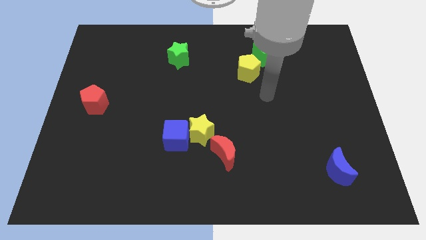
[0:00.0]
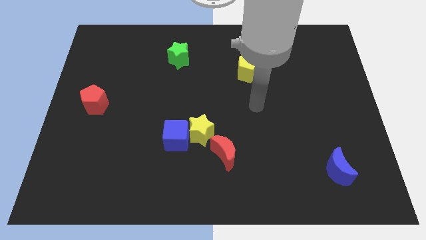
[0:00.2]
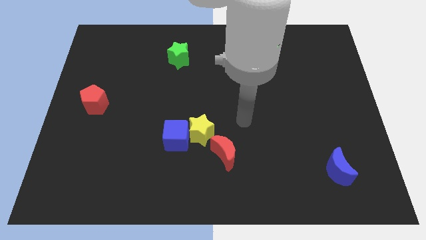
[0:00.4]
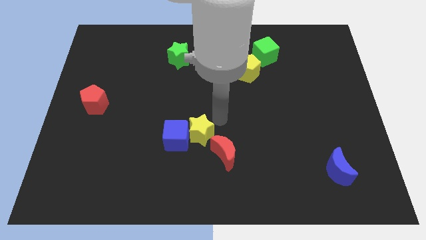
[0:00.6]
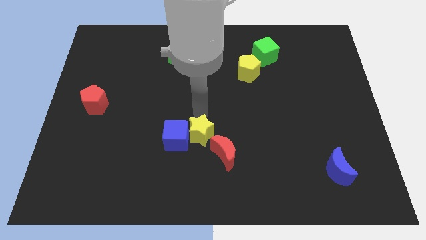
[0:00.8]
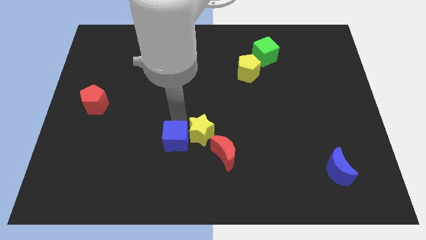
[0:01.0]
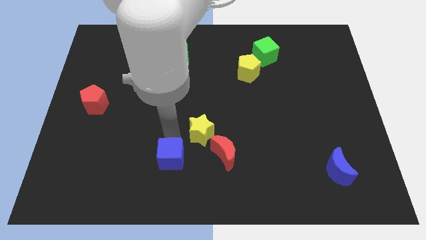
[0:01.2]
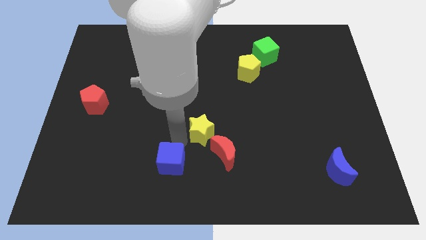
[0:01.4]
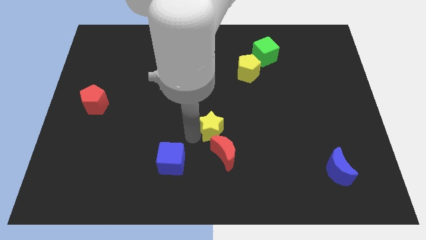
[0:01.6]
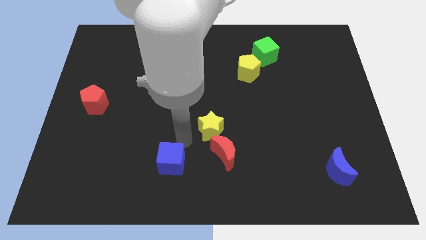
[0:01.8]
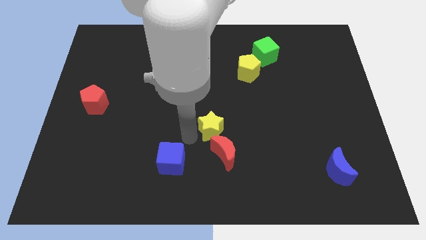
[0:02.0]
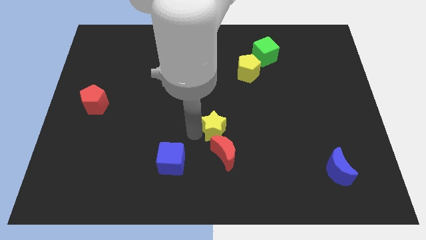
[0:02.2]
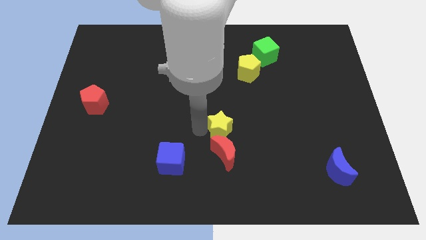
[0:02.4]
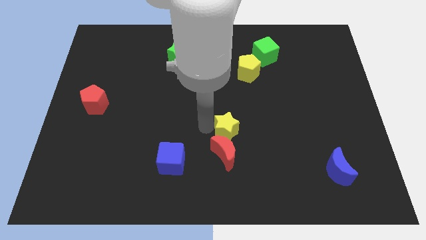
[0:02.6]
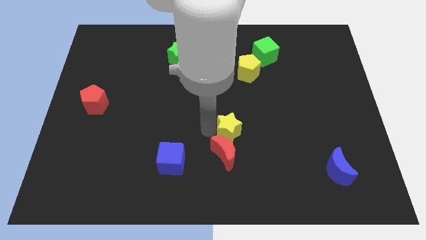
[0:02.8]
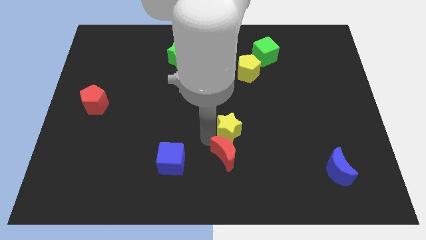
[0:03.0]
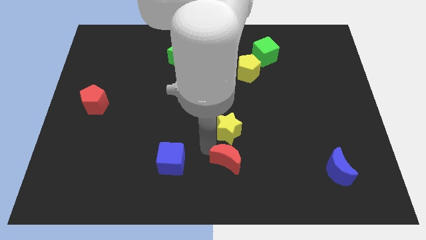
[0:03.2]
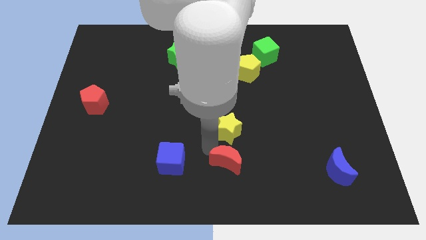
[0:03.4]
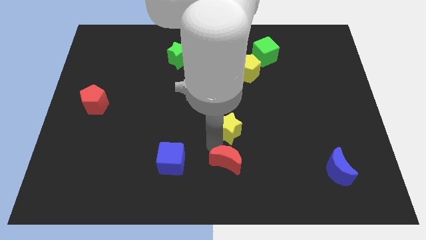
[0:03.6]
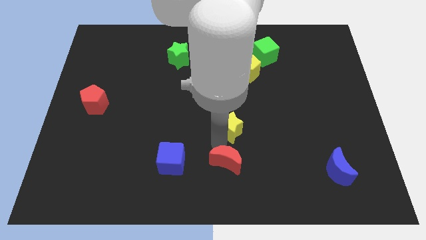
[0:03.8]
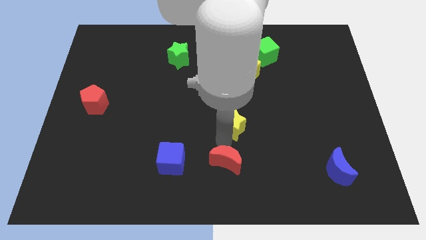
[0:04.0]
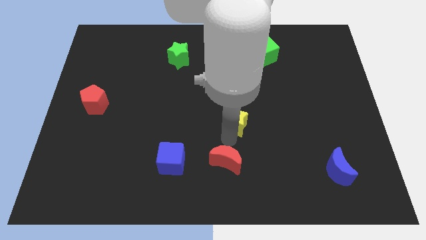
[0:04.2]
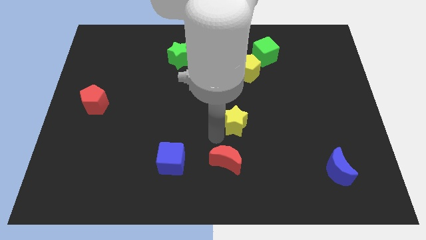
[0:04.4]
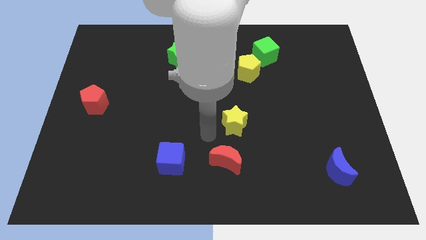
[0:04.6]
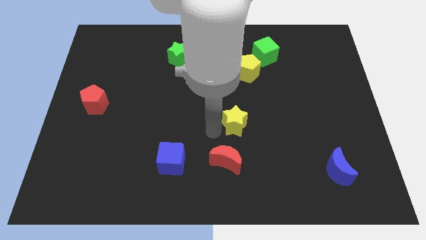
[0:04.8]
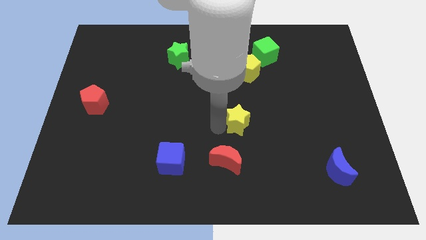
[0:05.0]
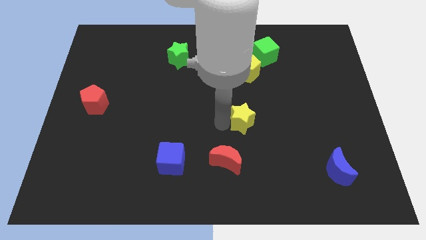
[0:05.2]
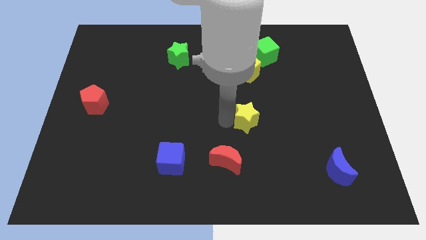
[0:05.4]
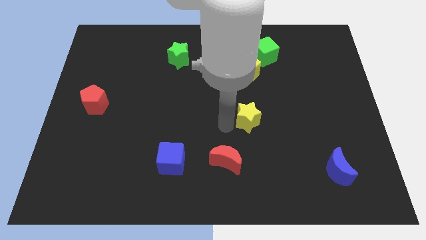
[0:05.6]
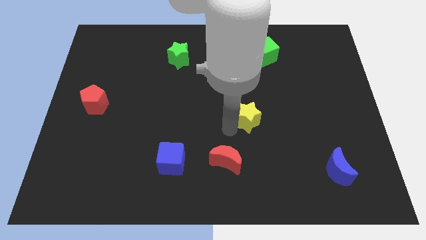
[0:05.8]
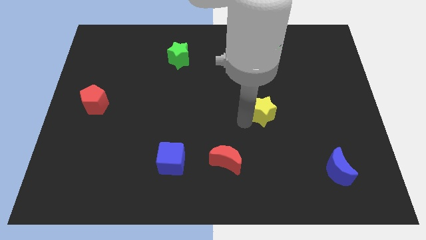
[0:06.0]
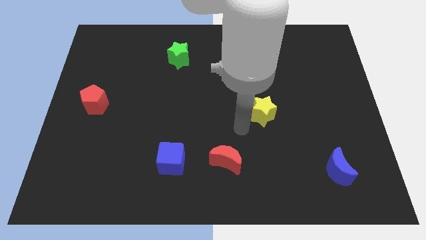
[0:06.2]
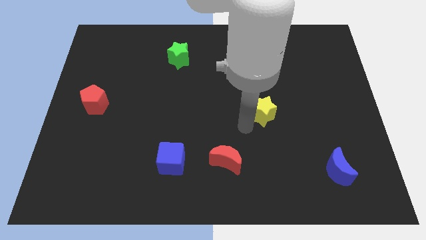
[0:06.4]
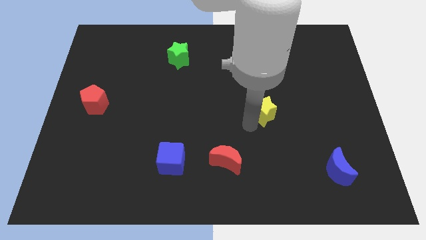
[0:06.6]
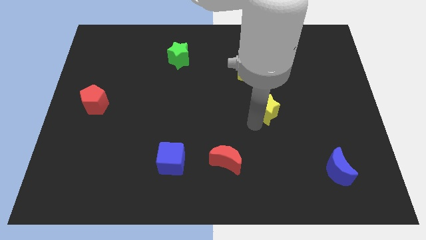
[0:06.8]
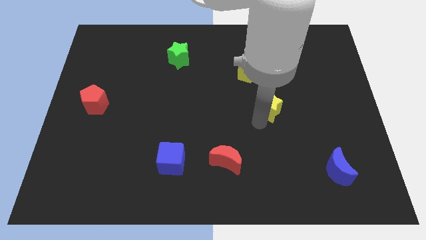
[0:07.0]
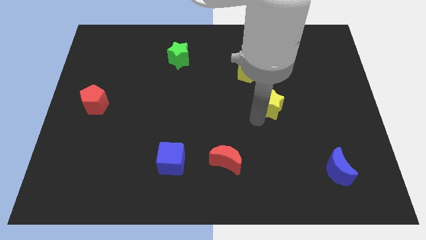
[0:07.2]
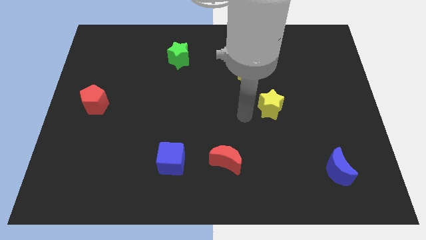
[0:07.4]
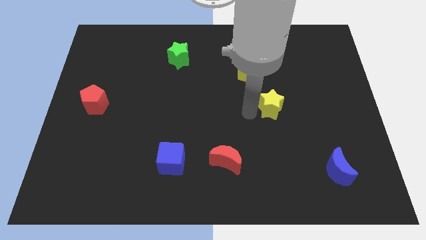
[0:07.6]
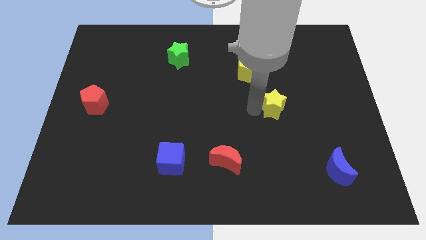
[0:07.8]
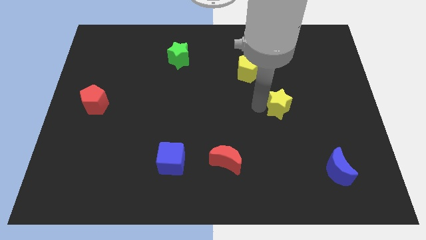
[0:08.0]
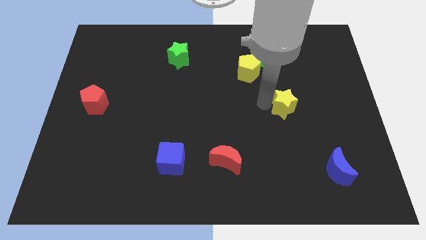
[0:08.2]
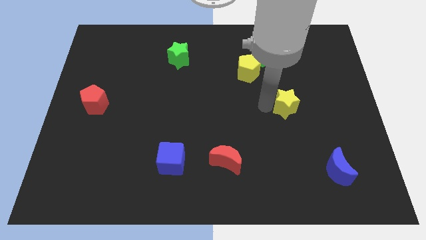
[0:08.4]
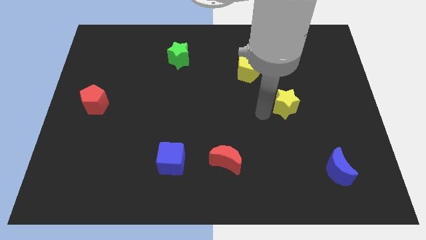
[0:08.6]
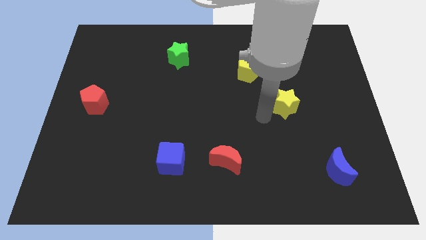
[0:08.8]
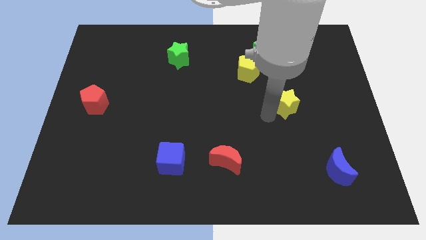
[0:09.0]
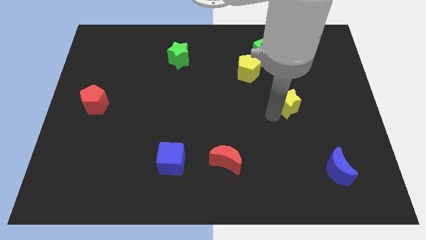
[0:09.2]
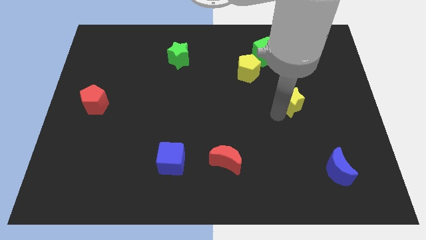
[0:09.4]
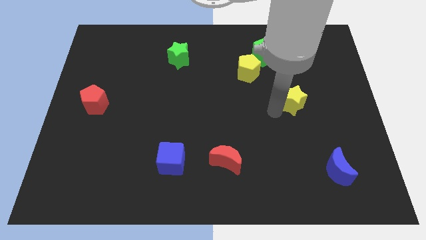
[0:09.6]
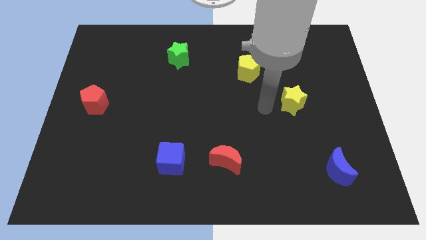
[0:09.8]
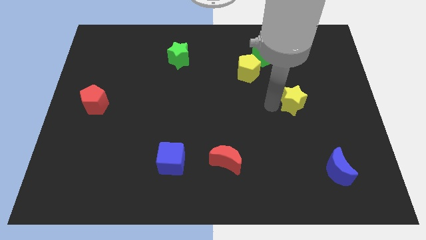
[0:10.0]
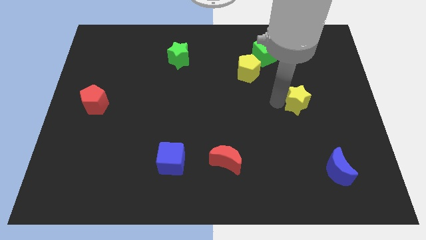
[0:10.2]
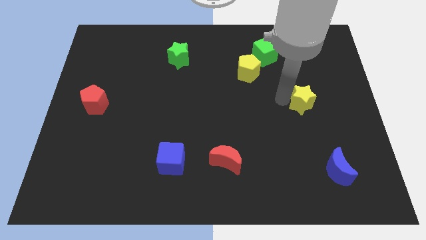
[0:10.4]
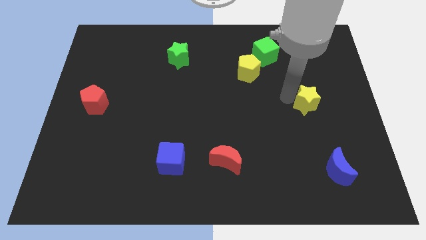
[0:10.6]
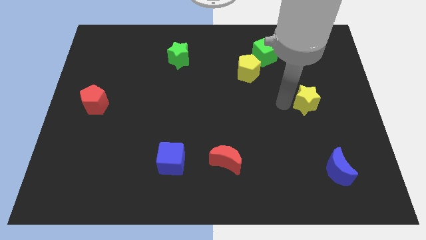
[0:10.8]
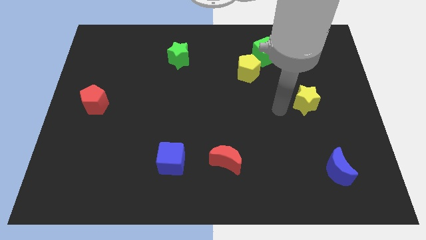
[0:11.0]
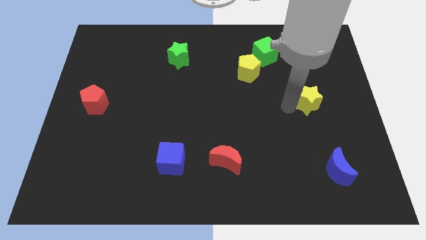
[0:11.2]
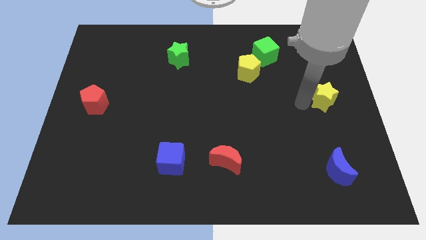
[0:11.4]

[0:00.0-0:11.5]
push the yellow star to the right side of the board
